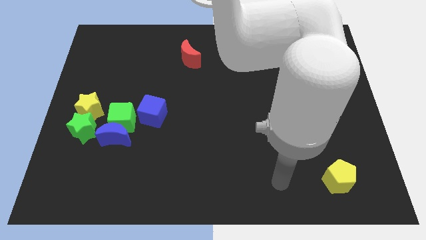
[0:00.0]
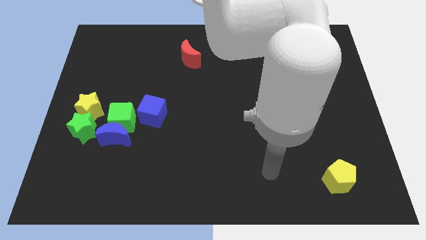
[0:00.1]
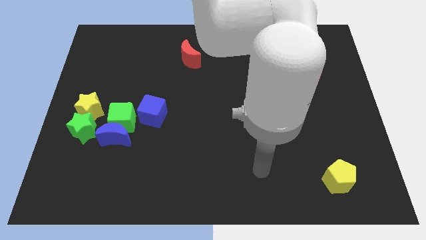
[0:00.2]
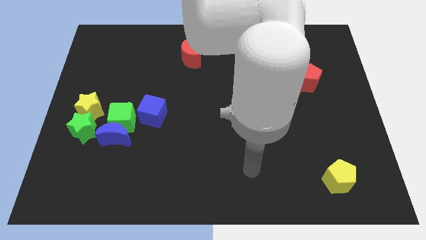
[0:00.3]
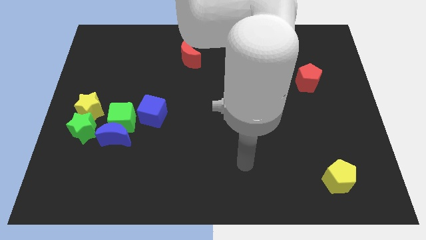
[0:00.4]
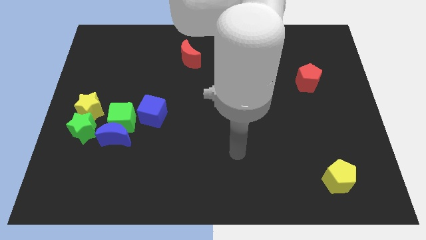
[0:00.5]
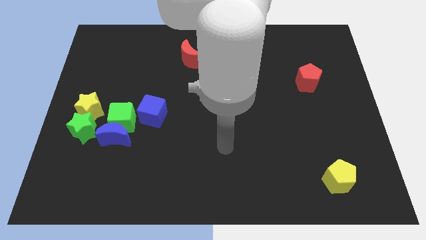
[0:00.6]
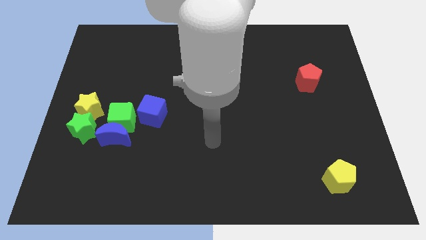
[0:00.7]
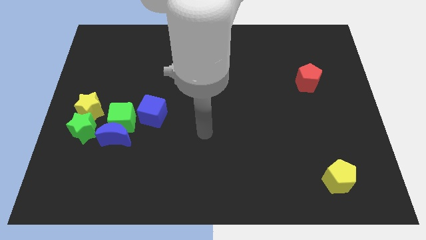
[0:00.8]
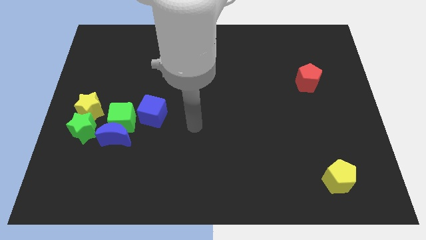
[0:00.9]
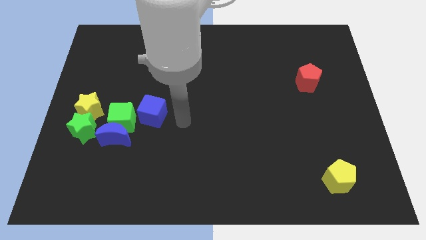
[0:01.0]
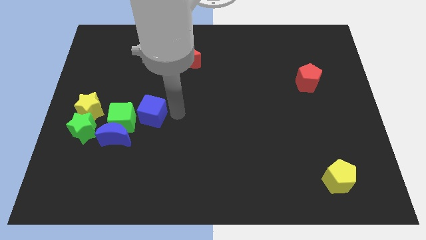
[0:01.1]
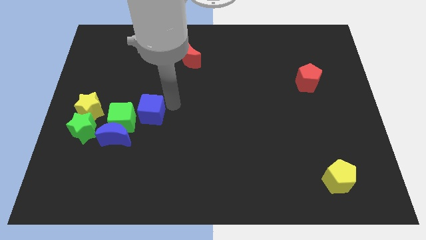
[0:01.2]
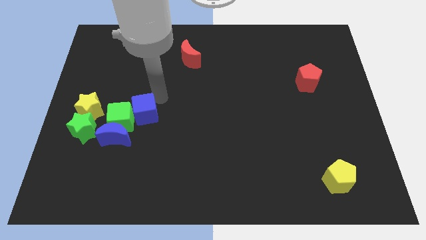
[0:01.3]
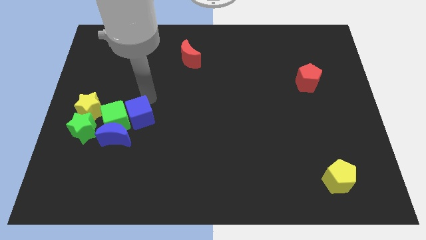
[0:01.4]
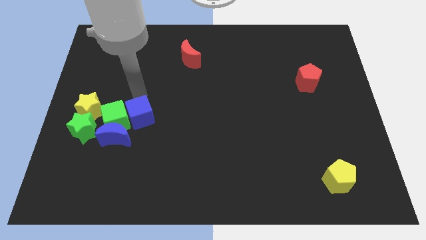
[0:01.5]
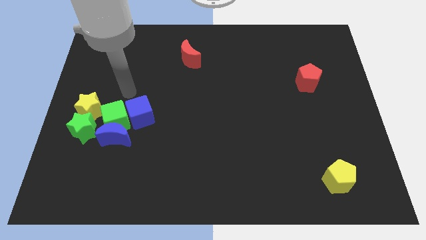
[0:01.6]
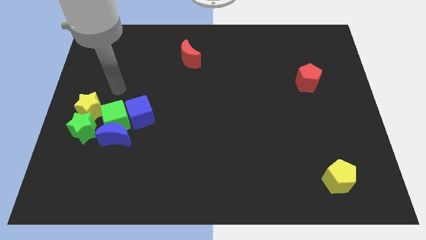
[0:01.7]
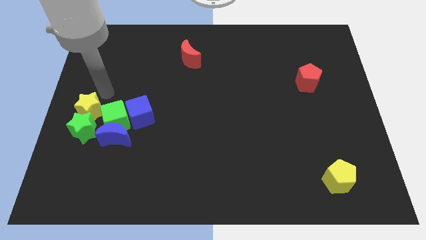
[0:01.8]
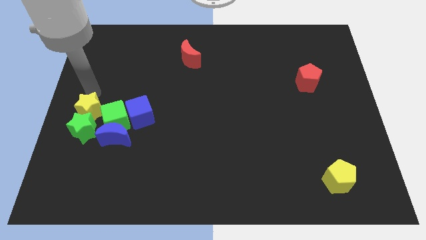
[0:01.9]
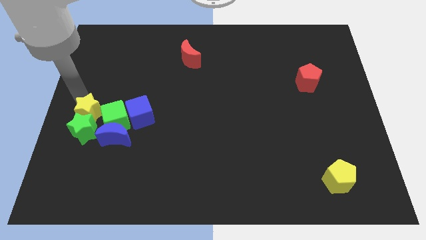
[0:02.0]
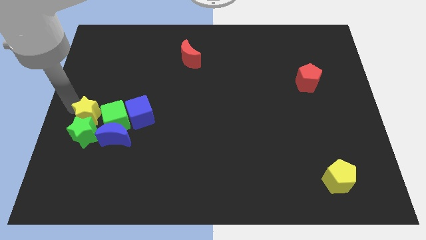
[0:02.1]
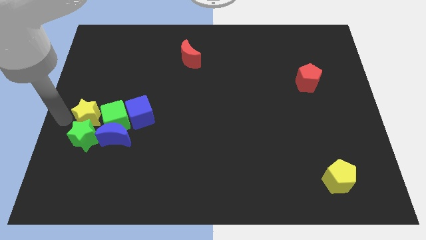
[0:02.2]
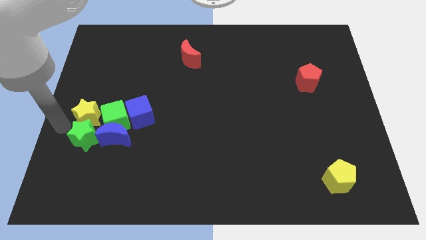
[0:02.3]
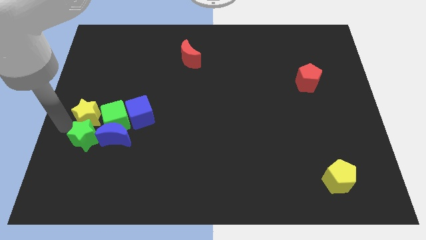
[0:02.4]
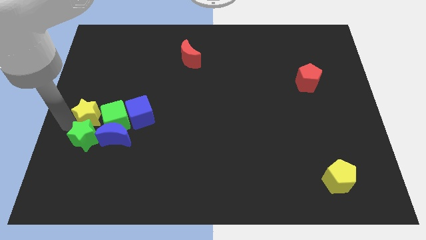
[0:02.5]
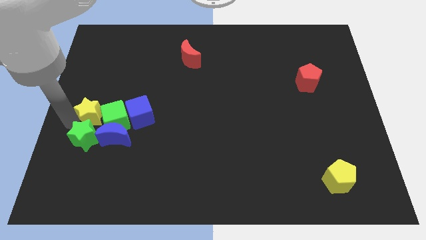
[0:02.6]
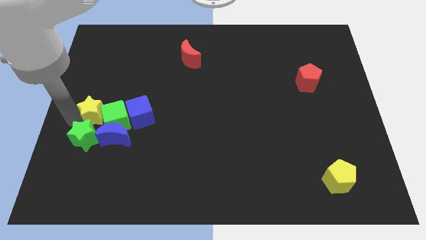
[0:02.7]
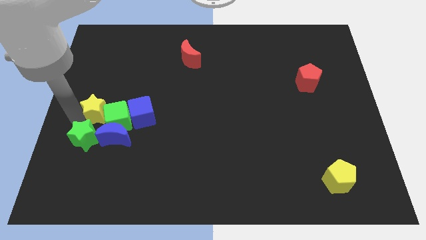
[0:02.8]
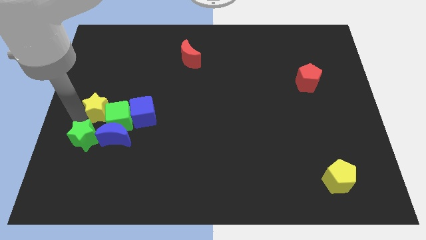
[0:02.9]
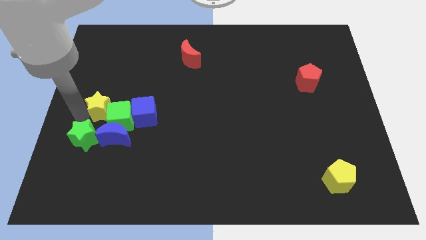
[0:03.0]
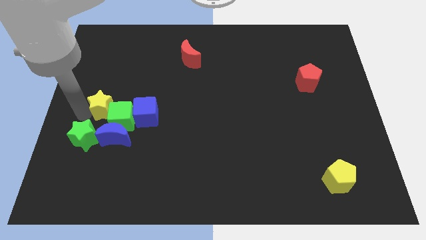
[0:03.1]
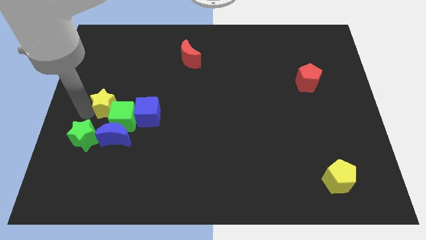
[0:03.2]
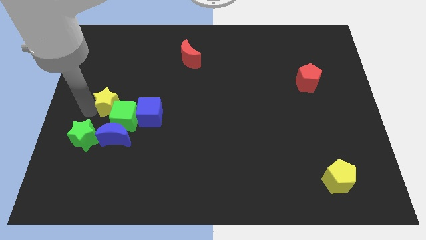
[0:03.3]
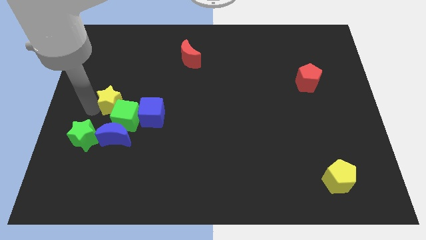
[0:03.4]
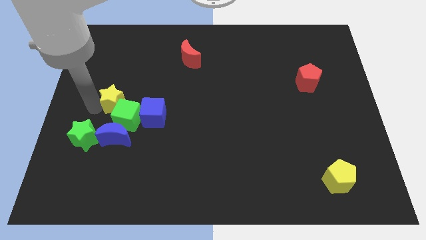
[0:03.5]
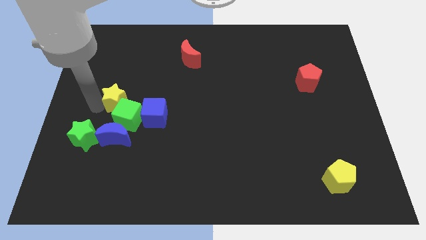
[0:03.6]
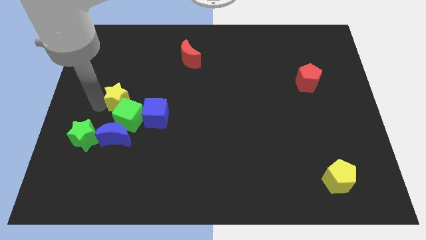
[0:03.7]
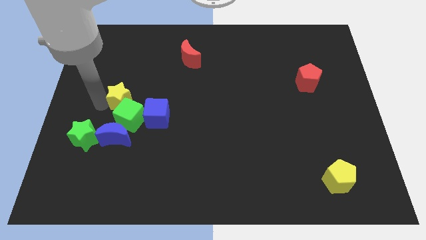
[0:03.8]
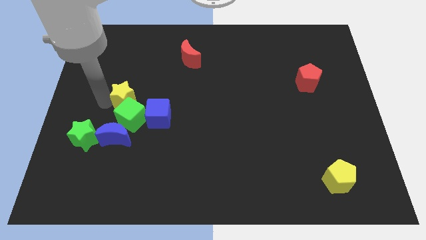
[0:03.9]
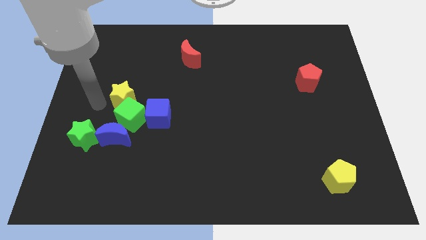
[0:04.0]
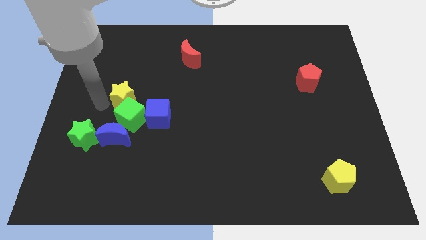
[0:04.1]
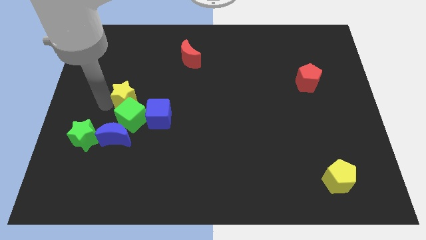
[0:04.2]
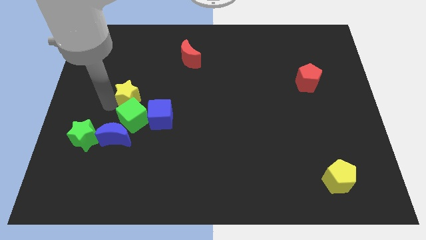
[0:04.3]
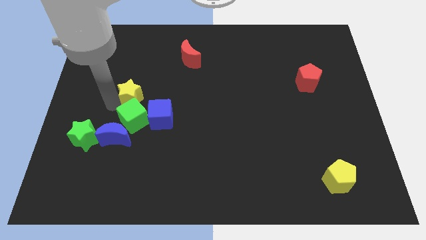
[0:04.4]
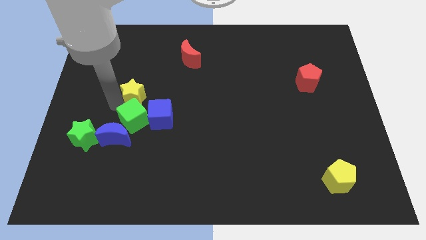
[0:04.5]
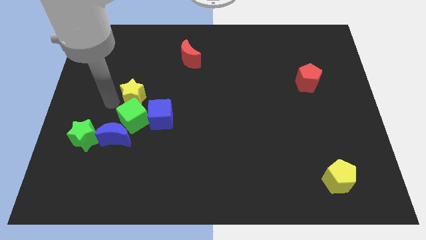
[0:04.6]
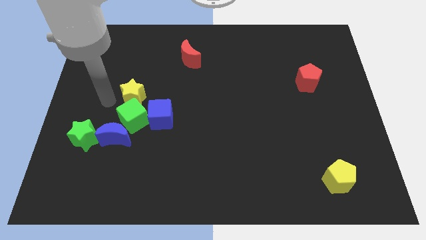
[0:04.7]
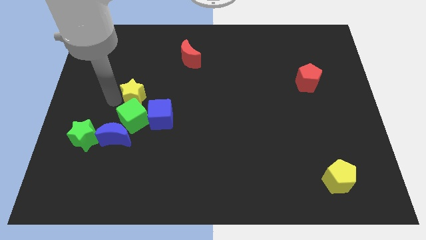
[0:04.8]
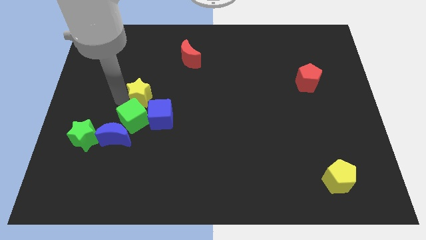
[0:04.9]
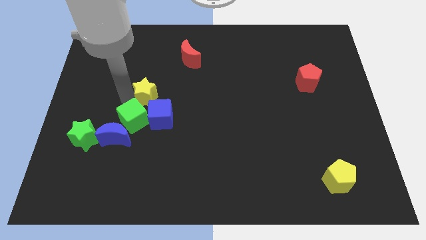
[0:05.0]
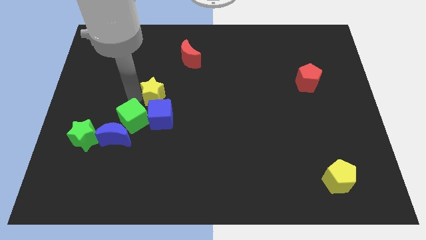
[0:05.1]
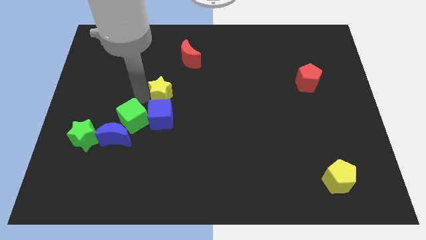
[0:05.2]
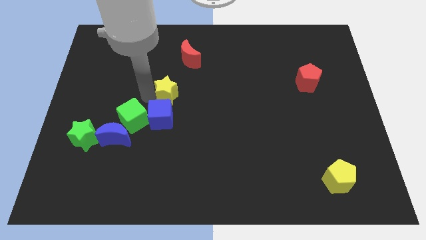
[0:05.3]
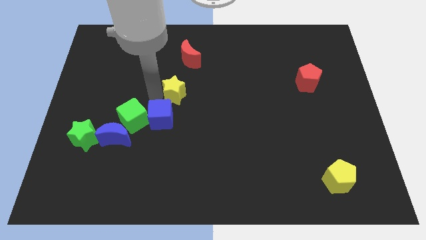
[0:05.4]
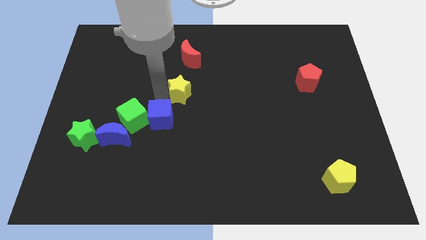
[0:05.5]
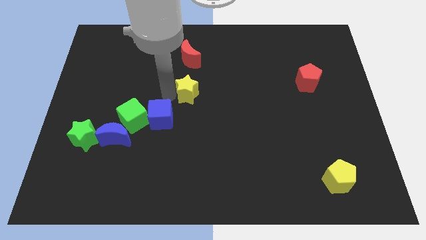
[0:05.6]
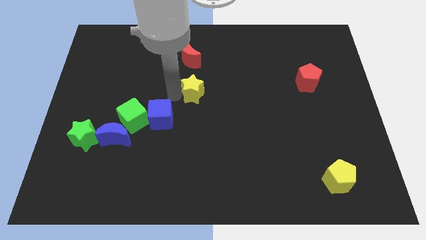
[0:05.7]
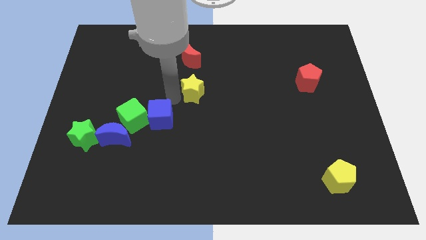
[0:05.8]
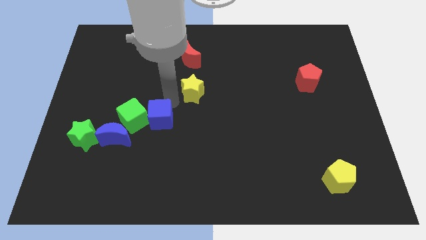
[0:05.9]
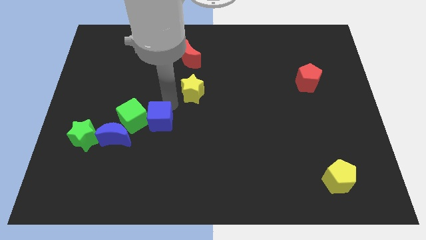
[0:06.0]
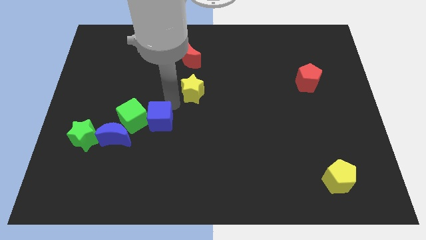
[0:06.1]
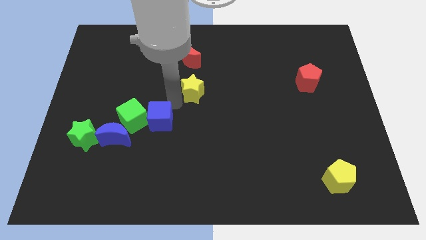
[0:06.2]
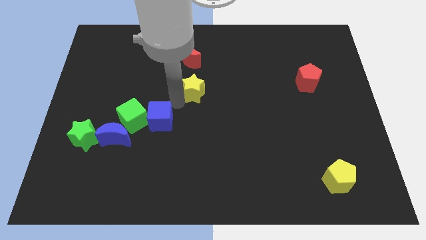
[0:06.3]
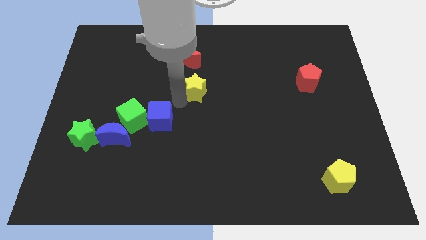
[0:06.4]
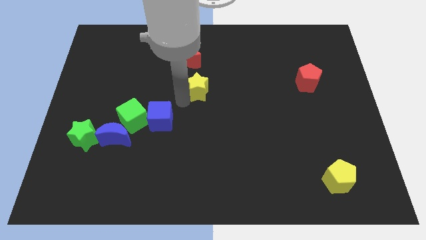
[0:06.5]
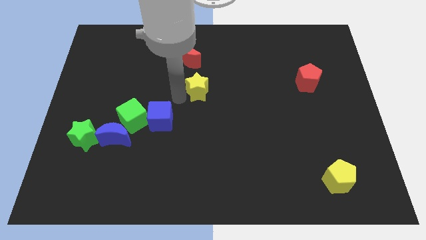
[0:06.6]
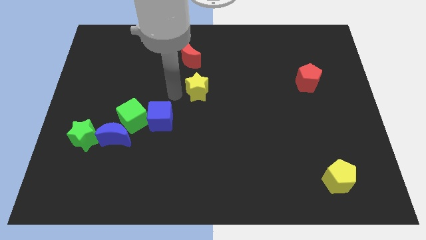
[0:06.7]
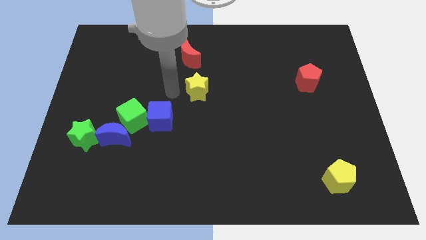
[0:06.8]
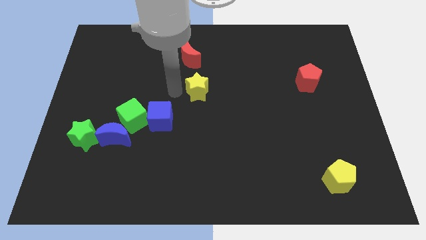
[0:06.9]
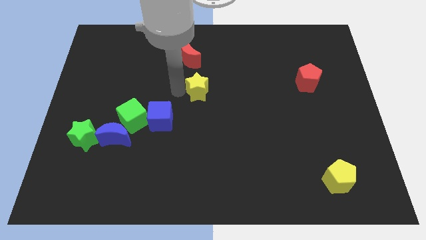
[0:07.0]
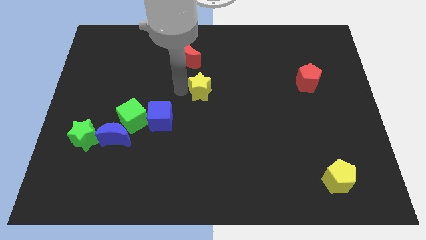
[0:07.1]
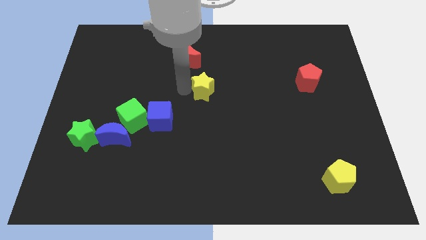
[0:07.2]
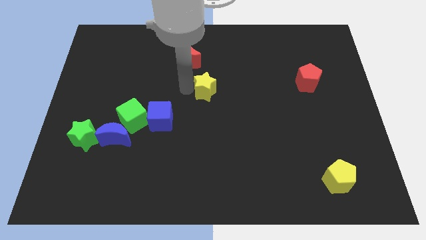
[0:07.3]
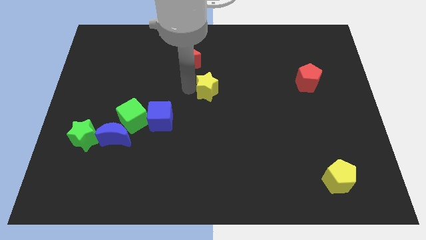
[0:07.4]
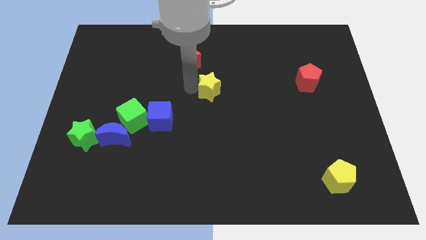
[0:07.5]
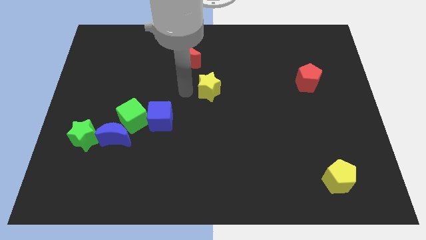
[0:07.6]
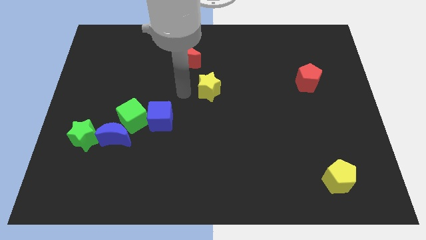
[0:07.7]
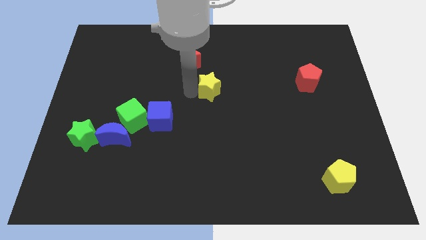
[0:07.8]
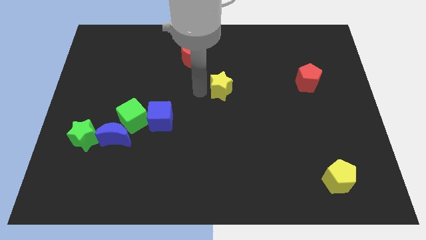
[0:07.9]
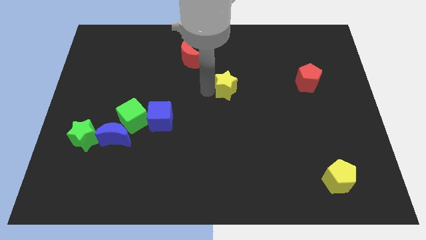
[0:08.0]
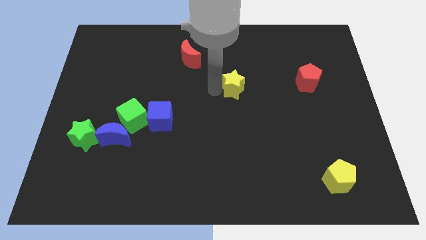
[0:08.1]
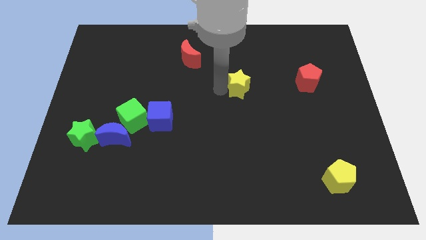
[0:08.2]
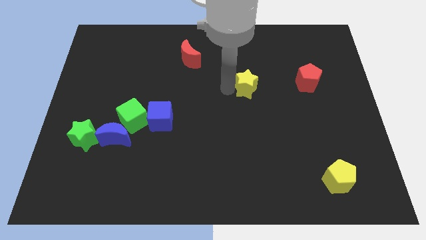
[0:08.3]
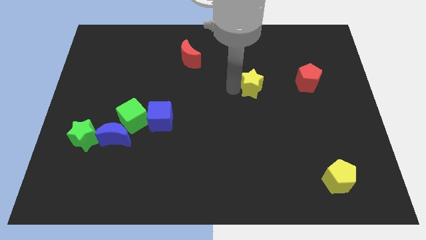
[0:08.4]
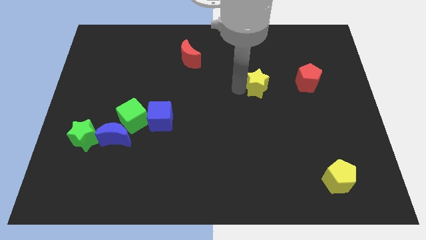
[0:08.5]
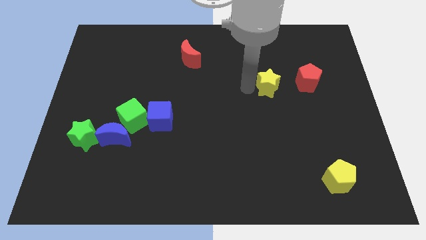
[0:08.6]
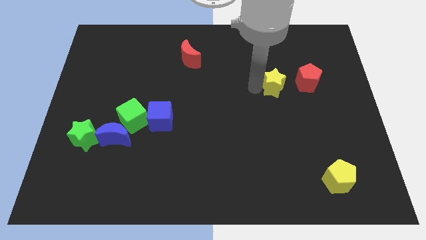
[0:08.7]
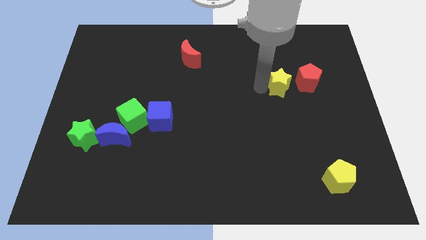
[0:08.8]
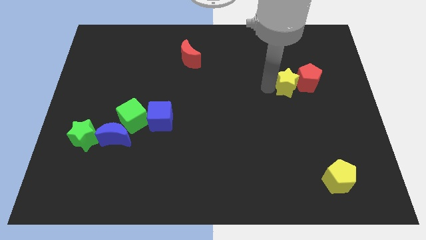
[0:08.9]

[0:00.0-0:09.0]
push the yellow star next to the red pentagon
